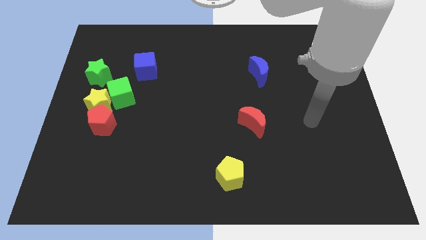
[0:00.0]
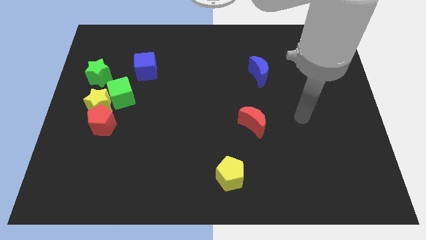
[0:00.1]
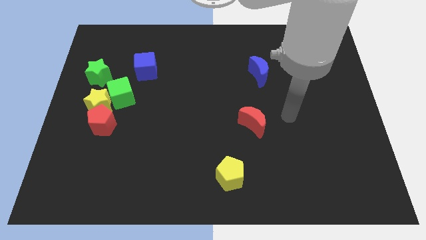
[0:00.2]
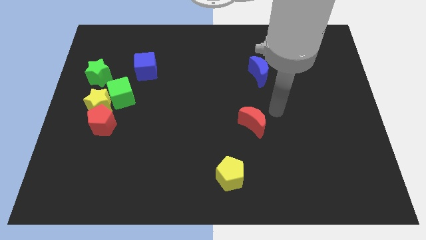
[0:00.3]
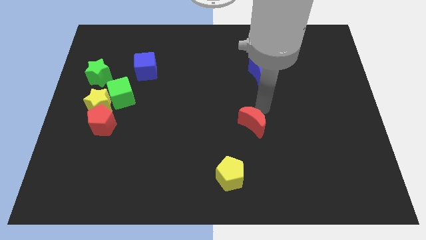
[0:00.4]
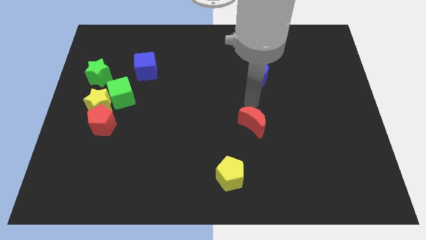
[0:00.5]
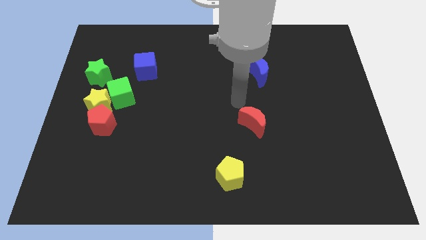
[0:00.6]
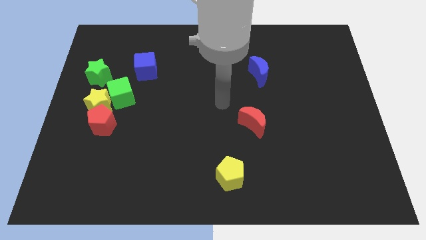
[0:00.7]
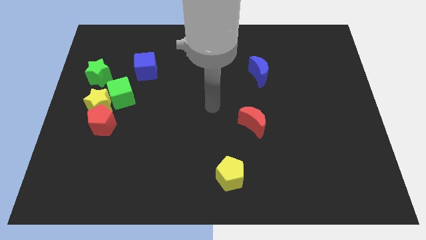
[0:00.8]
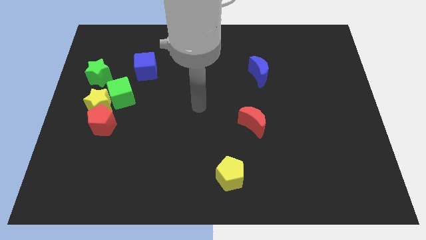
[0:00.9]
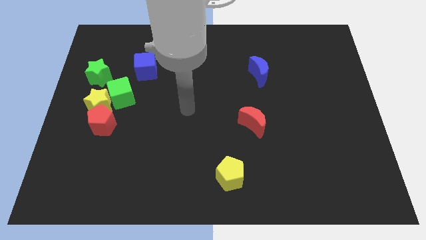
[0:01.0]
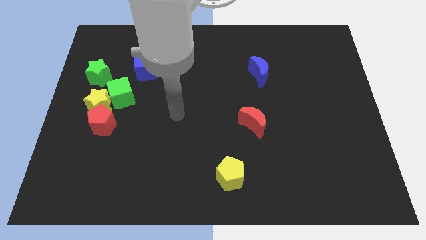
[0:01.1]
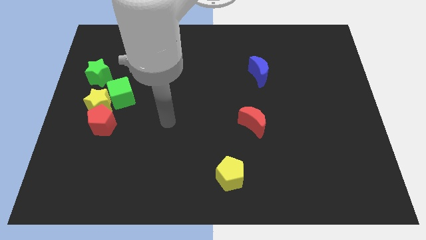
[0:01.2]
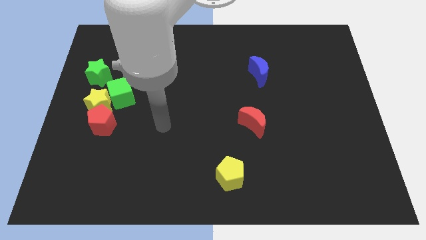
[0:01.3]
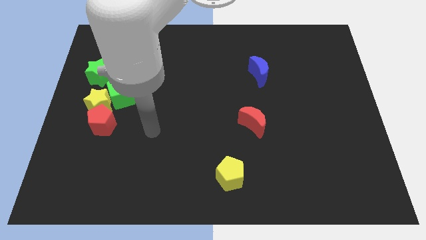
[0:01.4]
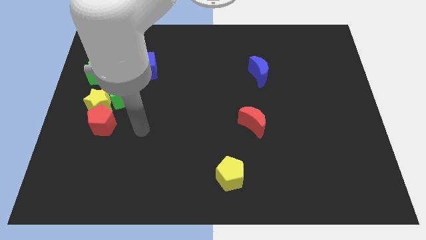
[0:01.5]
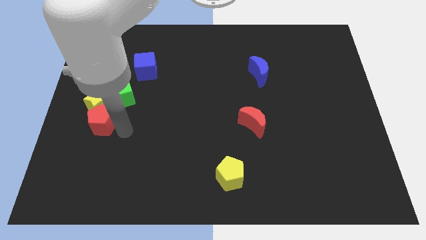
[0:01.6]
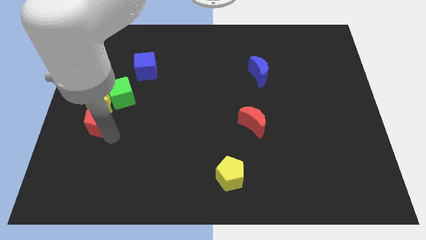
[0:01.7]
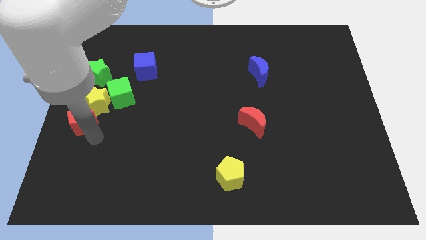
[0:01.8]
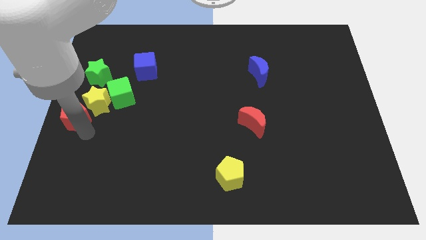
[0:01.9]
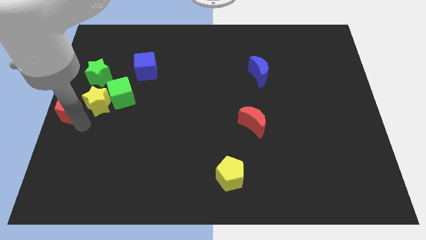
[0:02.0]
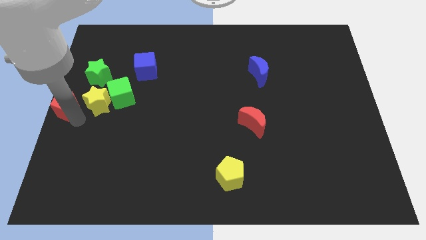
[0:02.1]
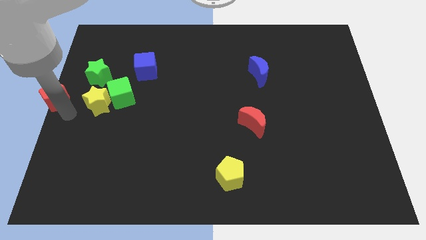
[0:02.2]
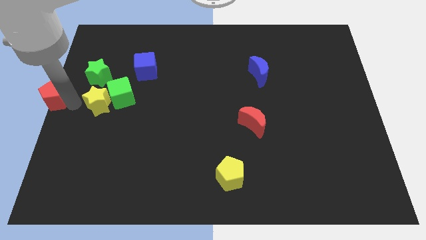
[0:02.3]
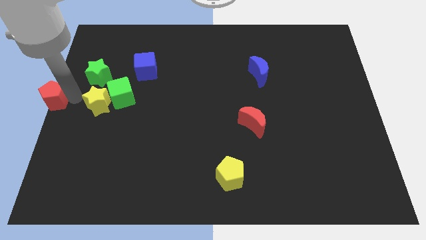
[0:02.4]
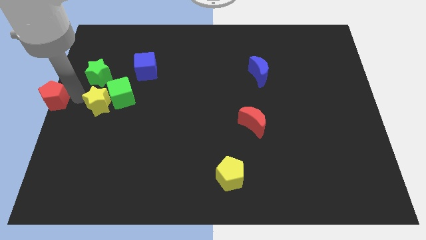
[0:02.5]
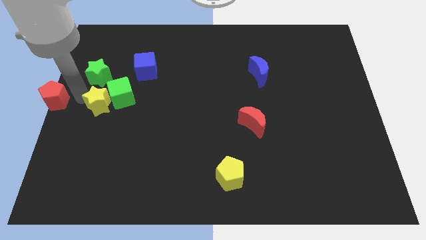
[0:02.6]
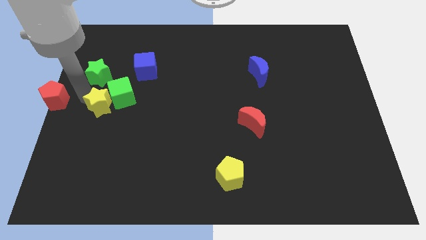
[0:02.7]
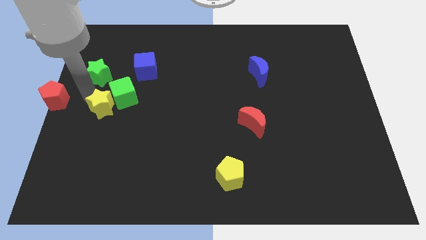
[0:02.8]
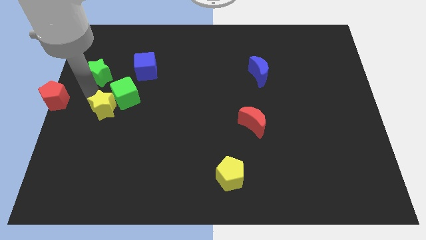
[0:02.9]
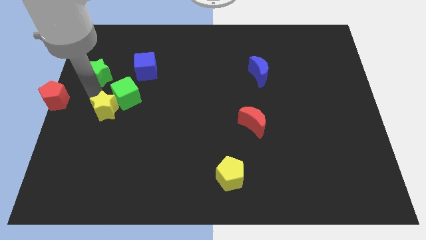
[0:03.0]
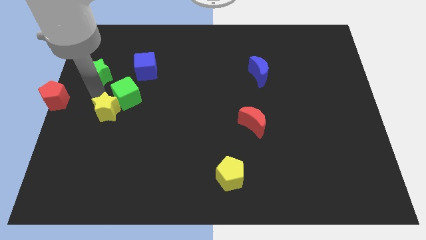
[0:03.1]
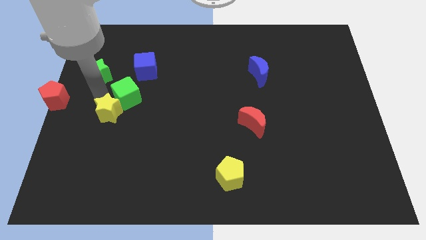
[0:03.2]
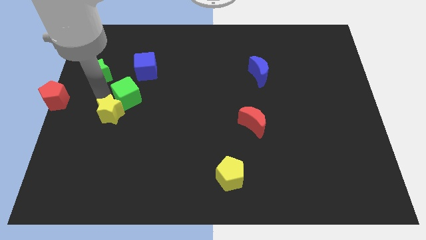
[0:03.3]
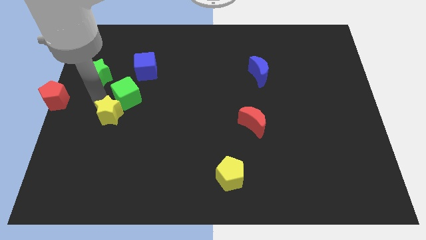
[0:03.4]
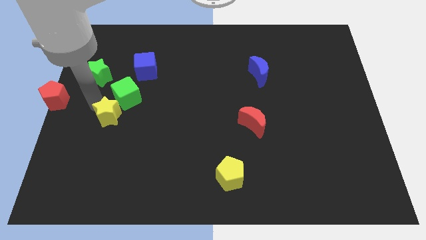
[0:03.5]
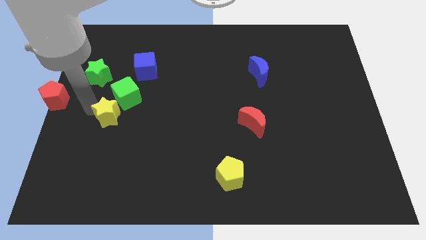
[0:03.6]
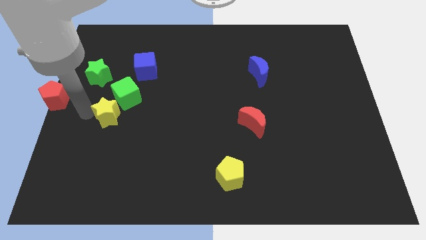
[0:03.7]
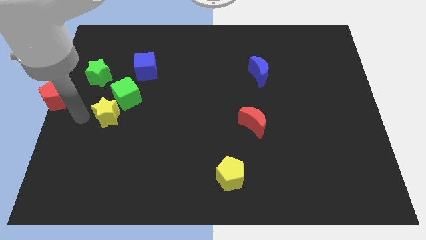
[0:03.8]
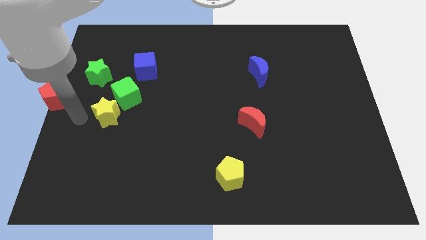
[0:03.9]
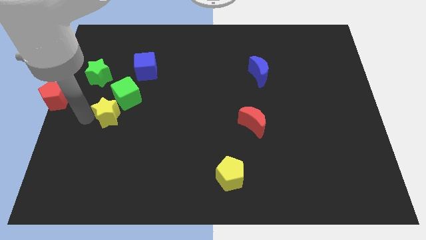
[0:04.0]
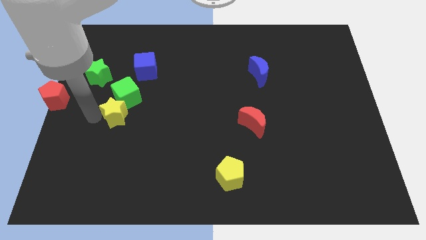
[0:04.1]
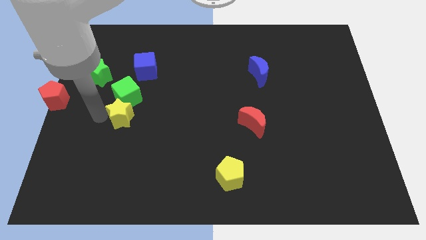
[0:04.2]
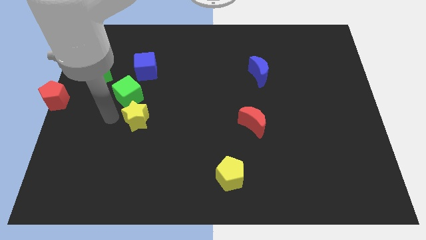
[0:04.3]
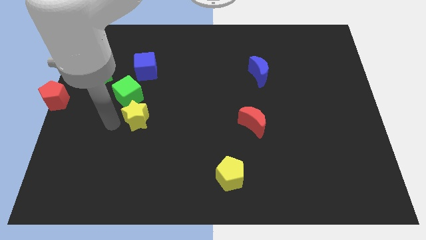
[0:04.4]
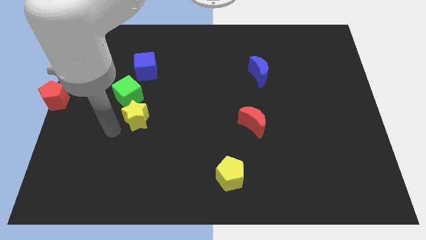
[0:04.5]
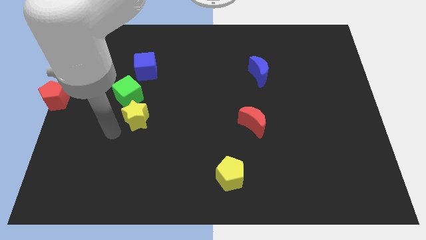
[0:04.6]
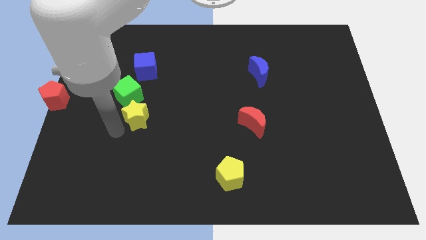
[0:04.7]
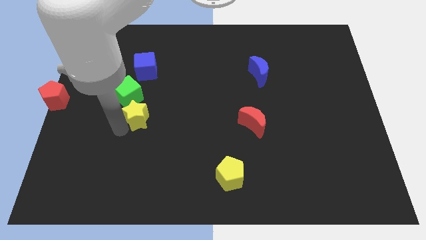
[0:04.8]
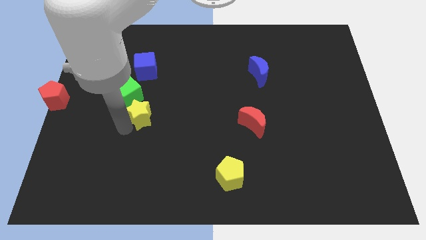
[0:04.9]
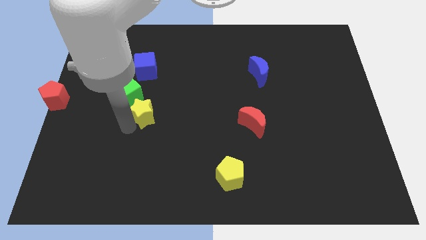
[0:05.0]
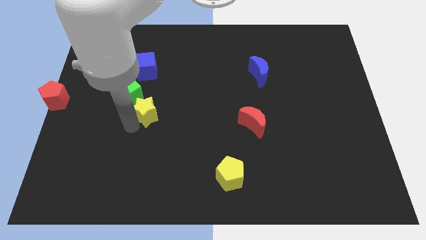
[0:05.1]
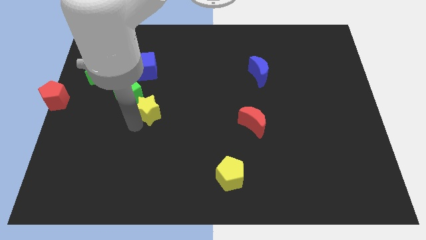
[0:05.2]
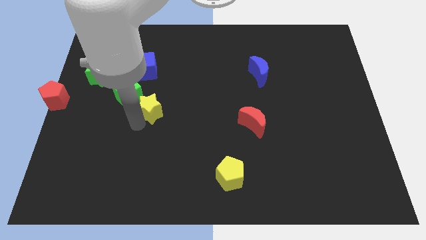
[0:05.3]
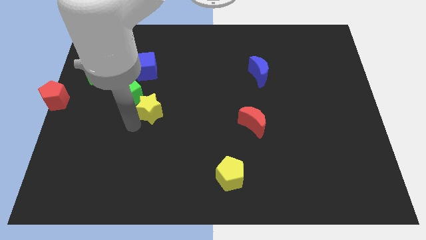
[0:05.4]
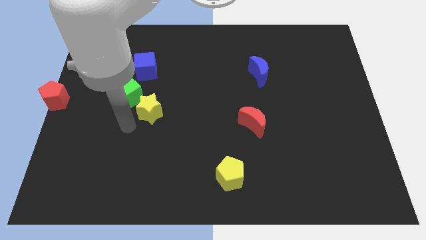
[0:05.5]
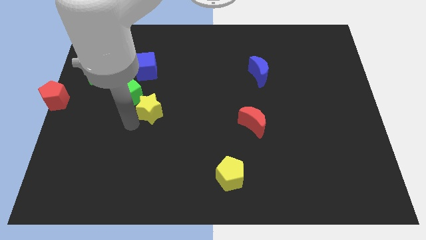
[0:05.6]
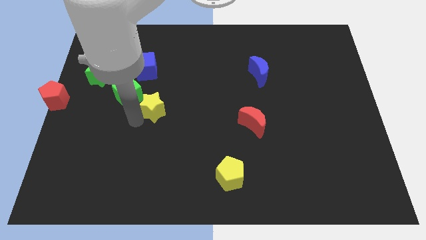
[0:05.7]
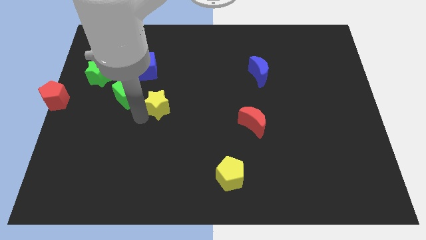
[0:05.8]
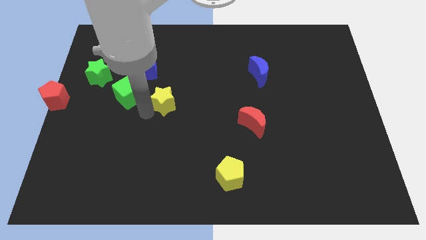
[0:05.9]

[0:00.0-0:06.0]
push the yellow star to the center of the board
